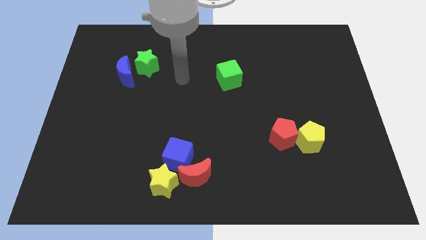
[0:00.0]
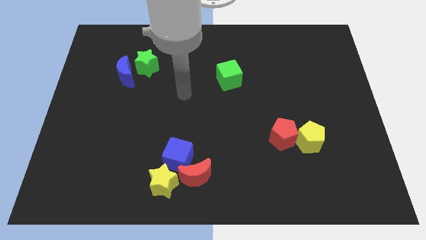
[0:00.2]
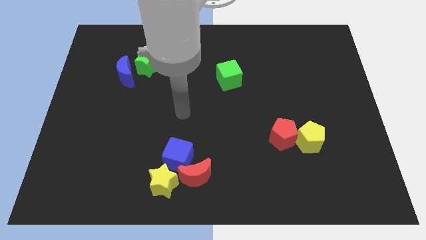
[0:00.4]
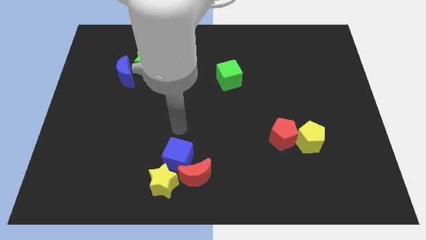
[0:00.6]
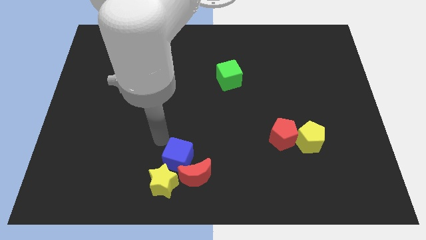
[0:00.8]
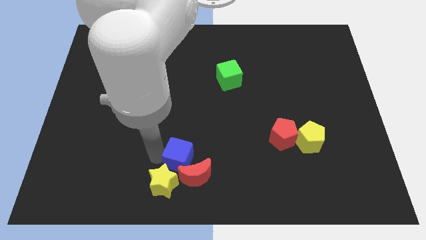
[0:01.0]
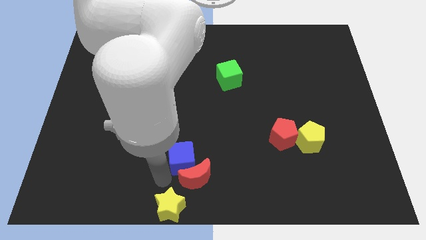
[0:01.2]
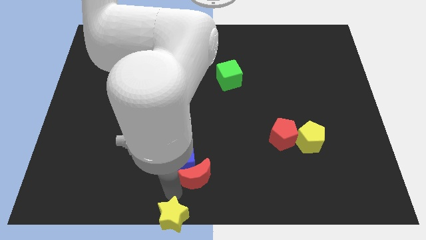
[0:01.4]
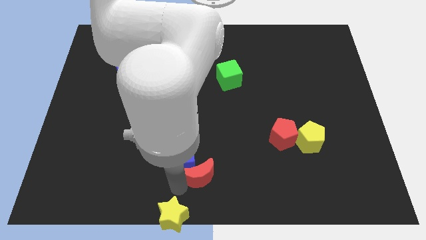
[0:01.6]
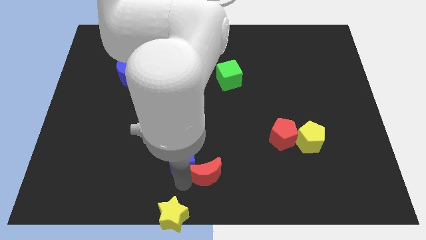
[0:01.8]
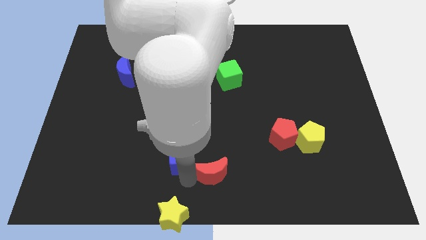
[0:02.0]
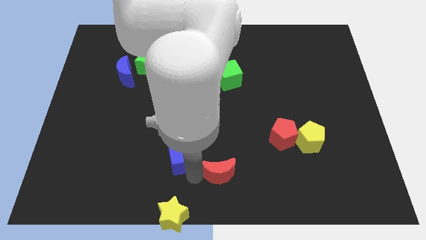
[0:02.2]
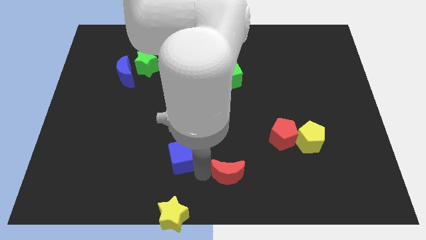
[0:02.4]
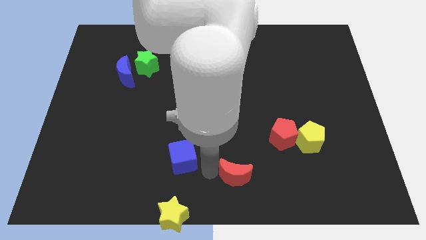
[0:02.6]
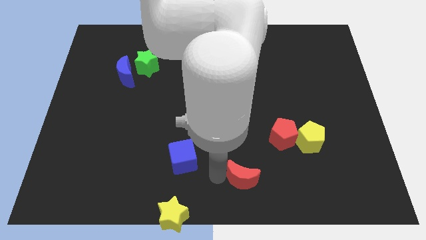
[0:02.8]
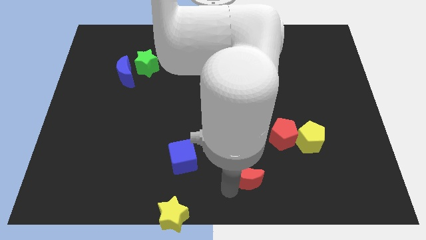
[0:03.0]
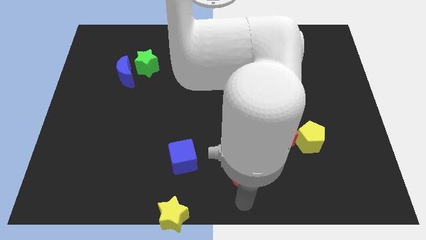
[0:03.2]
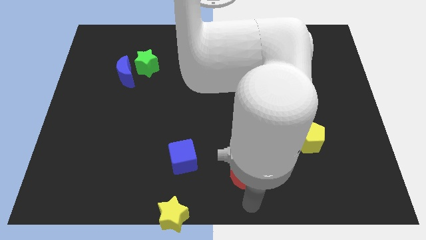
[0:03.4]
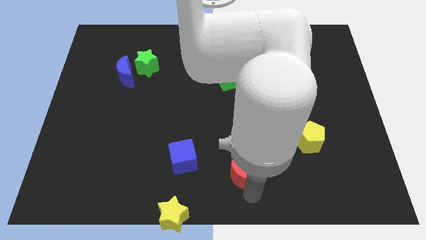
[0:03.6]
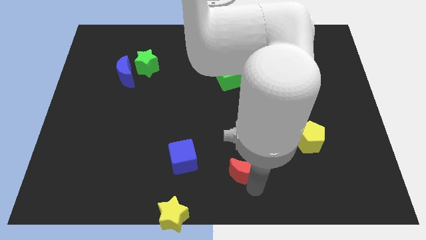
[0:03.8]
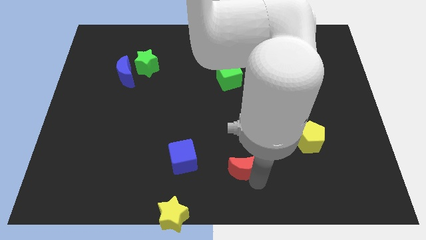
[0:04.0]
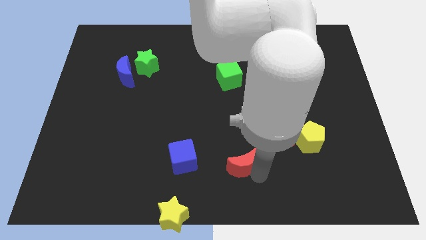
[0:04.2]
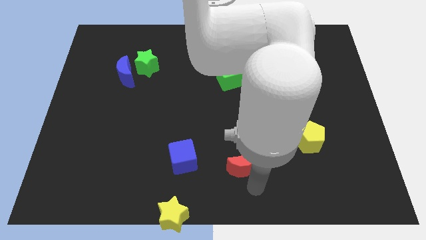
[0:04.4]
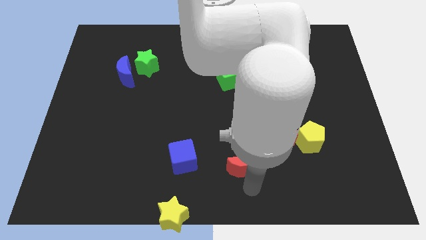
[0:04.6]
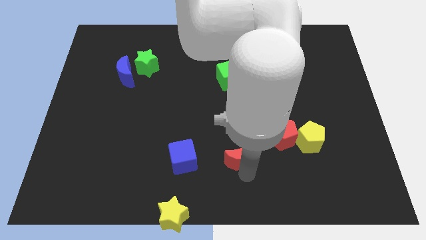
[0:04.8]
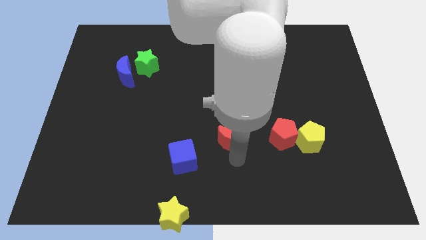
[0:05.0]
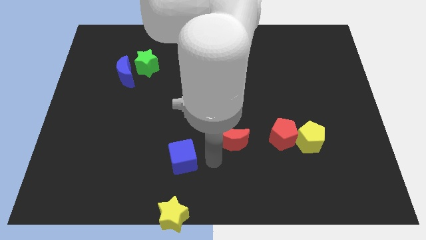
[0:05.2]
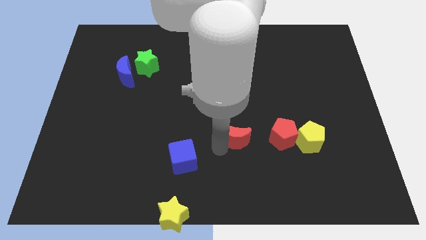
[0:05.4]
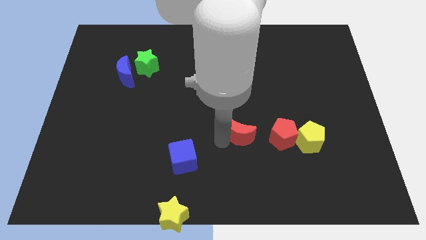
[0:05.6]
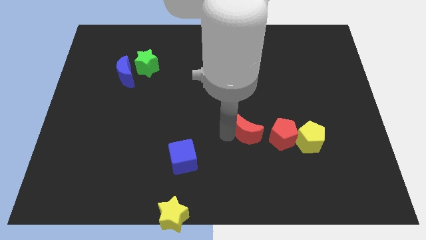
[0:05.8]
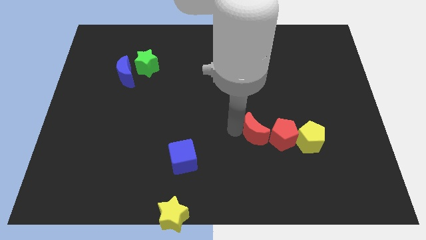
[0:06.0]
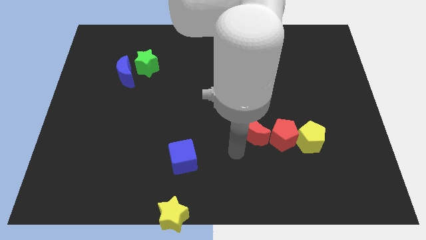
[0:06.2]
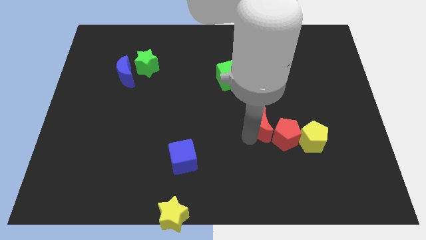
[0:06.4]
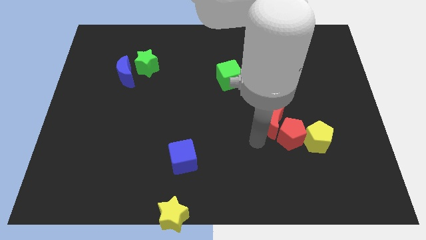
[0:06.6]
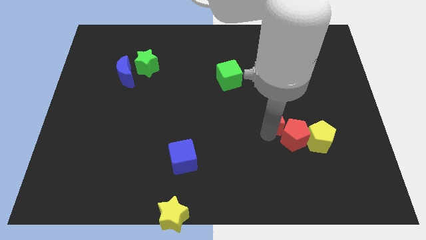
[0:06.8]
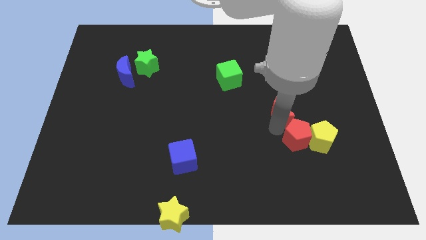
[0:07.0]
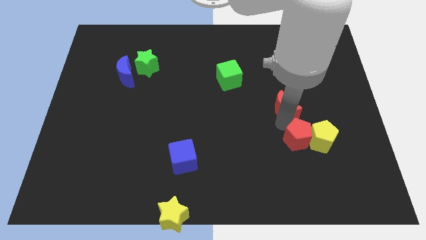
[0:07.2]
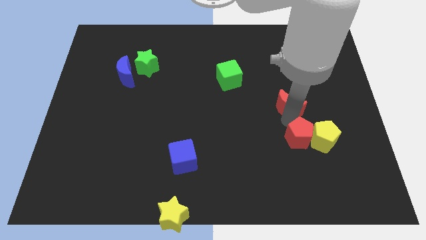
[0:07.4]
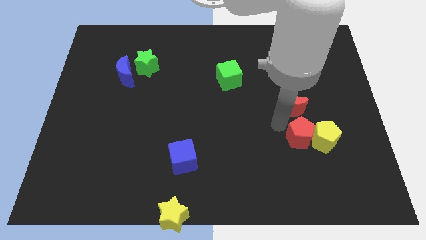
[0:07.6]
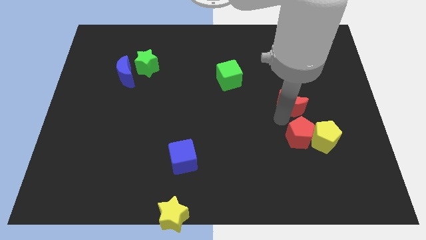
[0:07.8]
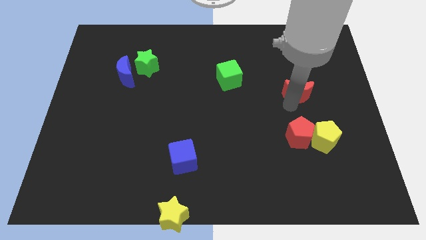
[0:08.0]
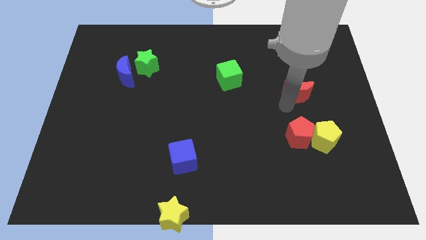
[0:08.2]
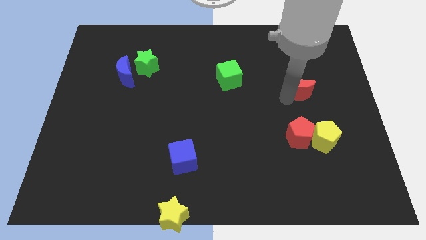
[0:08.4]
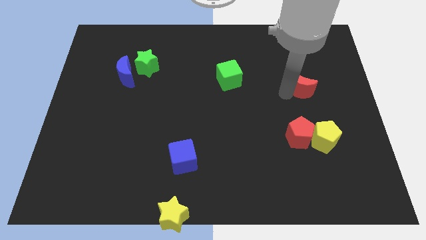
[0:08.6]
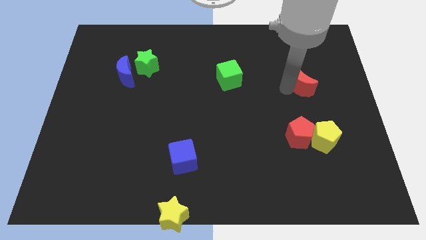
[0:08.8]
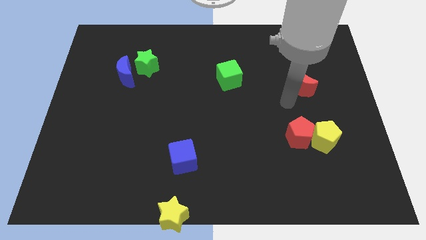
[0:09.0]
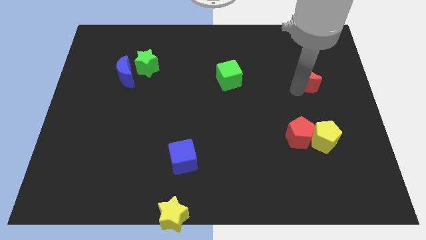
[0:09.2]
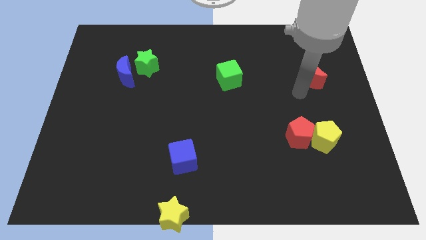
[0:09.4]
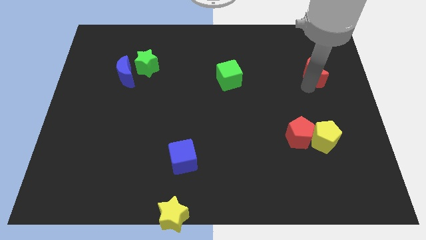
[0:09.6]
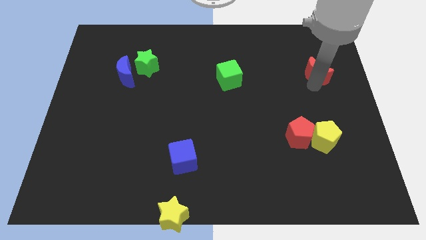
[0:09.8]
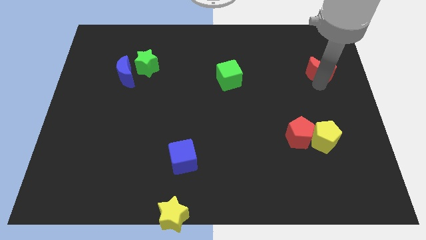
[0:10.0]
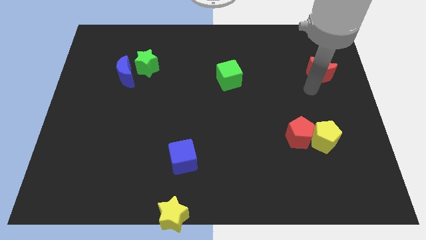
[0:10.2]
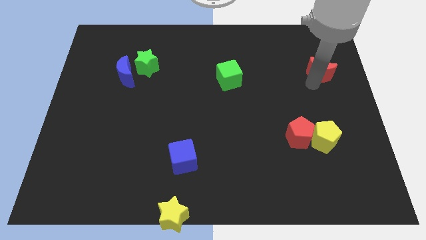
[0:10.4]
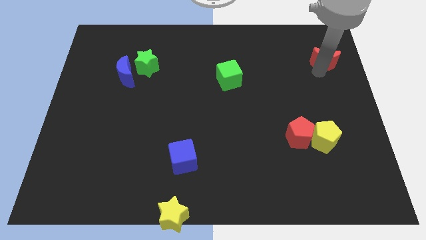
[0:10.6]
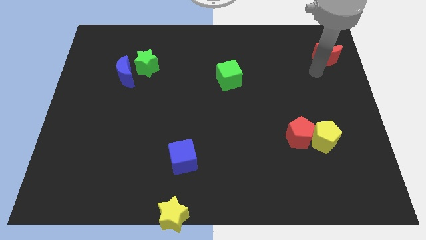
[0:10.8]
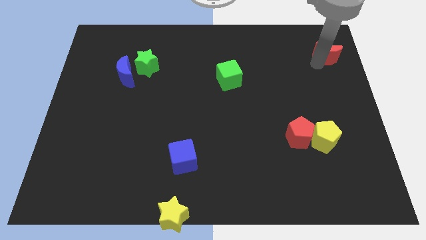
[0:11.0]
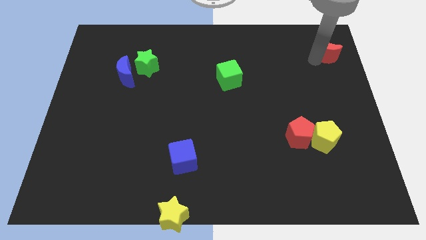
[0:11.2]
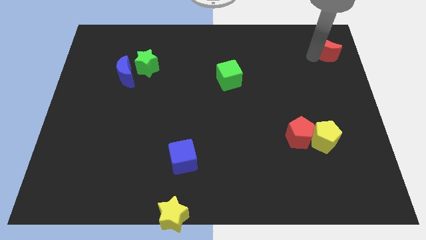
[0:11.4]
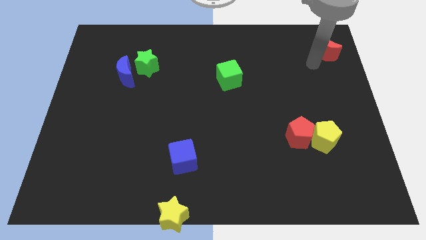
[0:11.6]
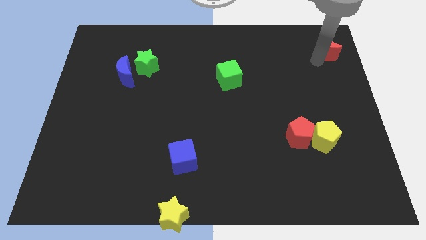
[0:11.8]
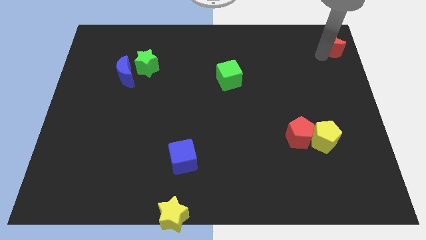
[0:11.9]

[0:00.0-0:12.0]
push the red moon to the top right

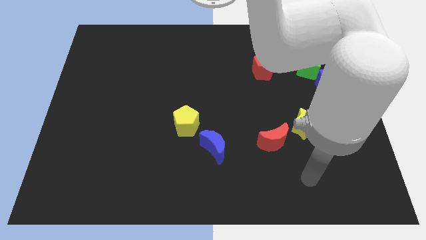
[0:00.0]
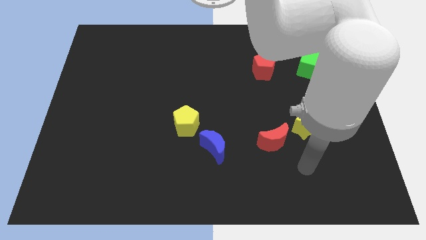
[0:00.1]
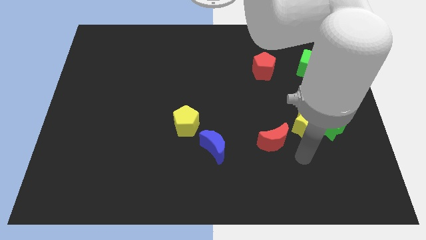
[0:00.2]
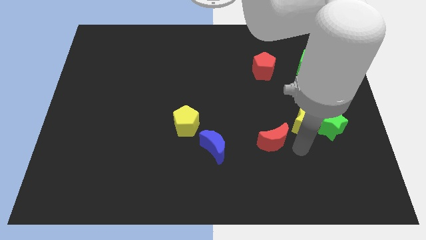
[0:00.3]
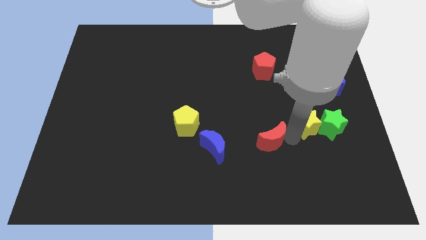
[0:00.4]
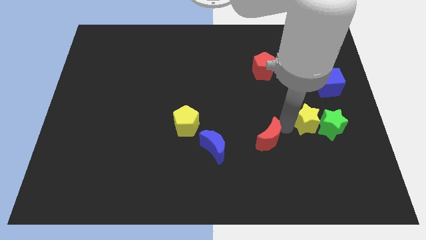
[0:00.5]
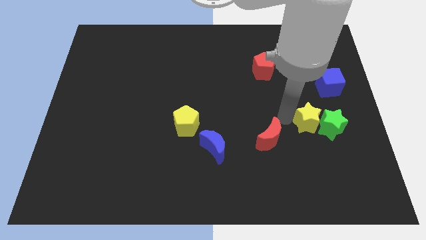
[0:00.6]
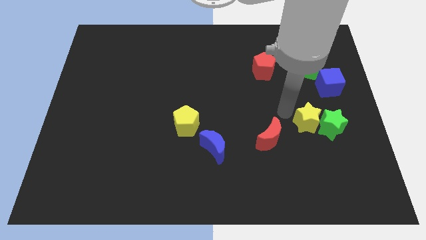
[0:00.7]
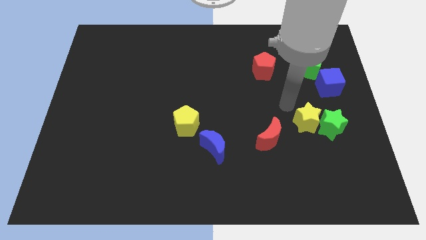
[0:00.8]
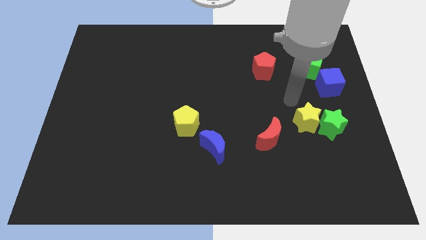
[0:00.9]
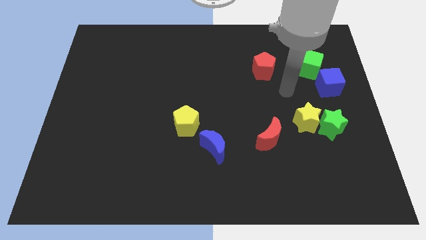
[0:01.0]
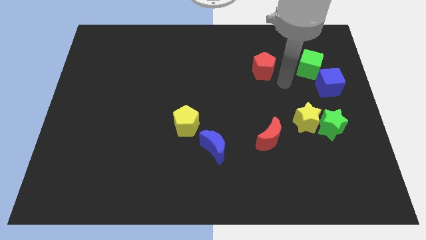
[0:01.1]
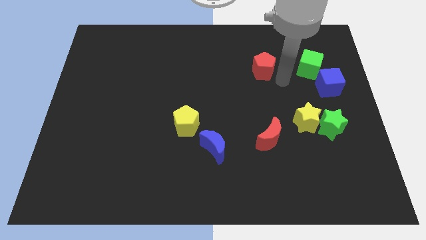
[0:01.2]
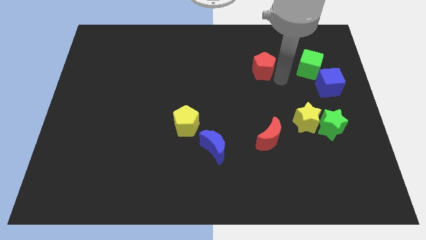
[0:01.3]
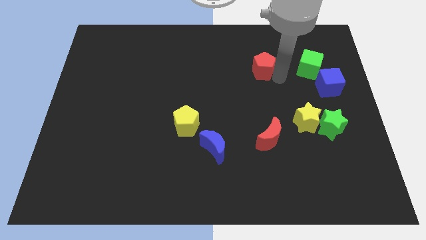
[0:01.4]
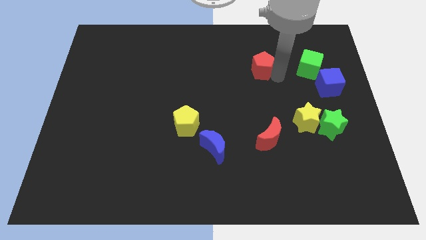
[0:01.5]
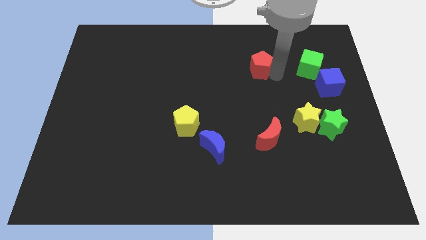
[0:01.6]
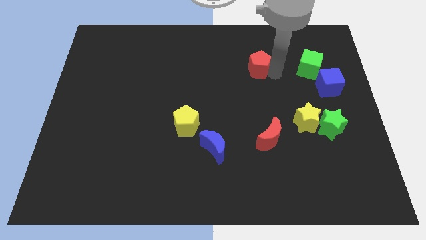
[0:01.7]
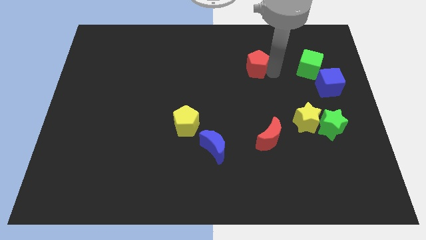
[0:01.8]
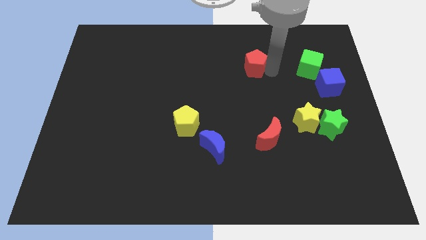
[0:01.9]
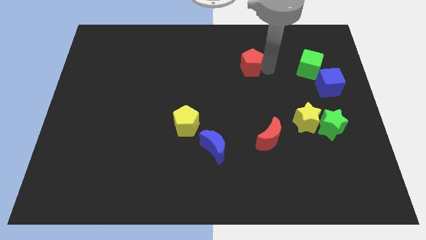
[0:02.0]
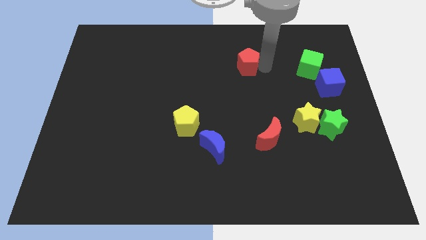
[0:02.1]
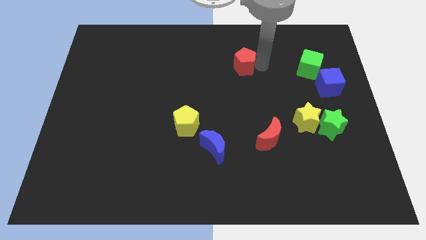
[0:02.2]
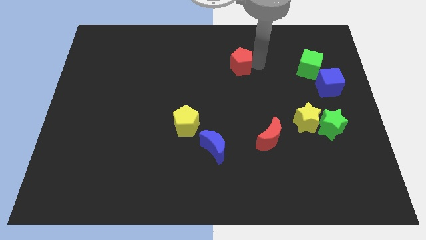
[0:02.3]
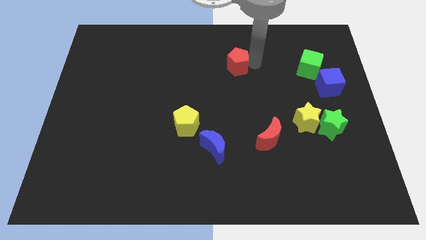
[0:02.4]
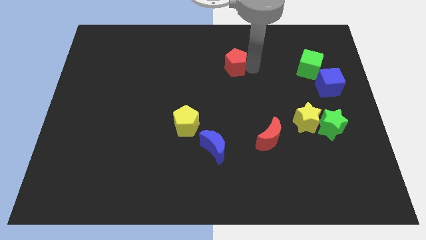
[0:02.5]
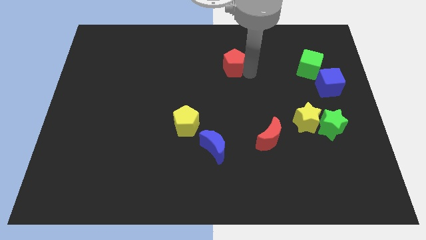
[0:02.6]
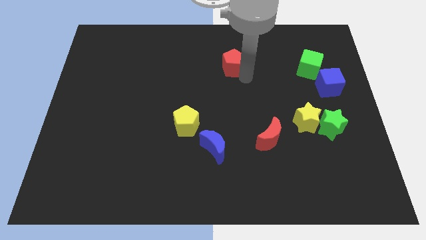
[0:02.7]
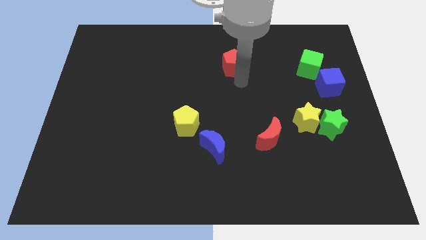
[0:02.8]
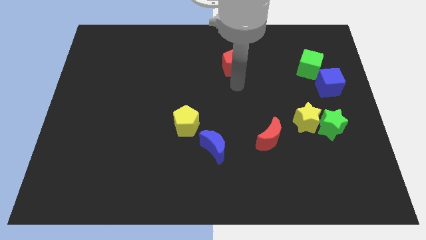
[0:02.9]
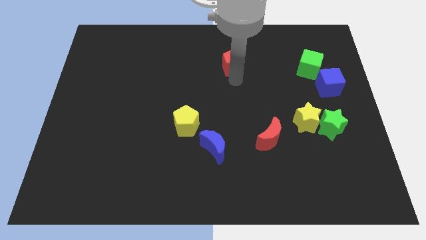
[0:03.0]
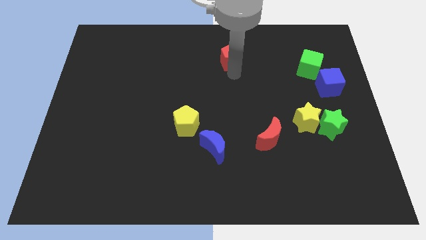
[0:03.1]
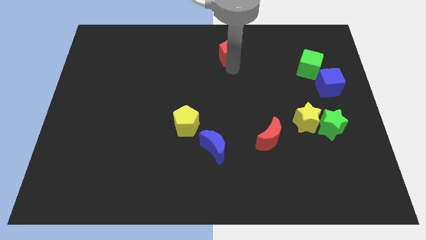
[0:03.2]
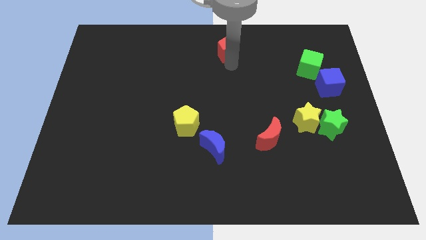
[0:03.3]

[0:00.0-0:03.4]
move the red pentagon to the top side
